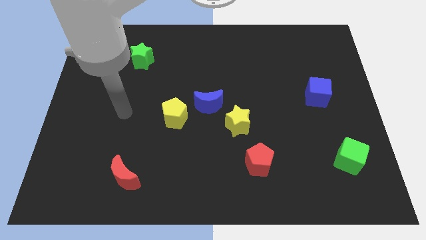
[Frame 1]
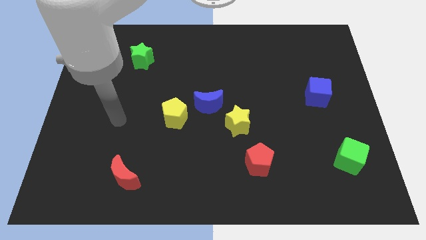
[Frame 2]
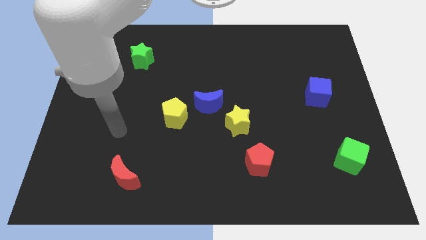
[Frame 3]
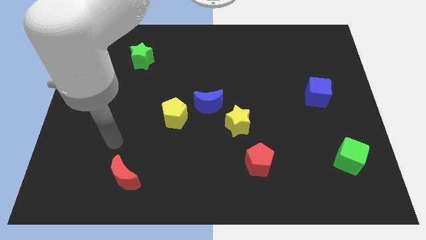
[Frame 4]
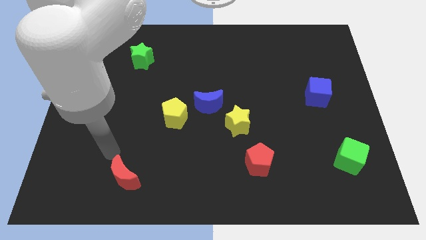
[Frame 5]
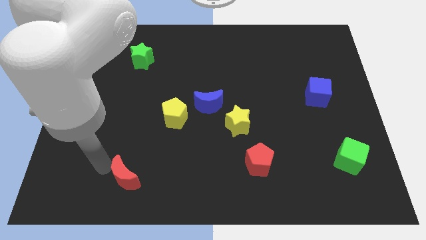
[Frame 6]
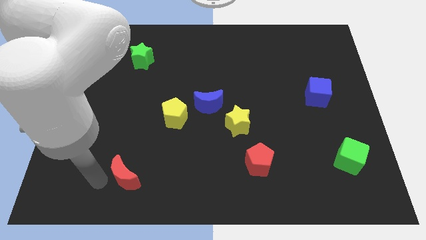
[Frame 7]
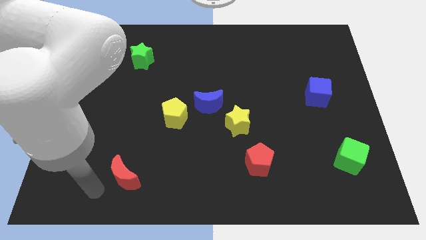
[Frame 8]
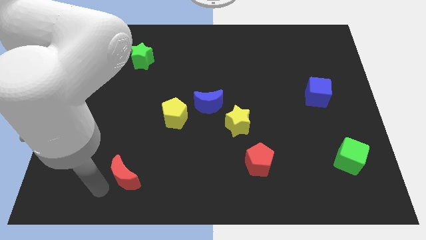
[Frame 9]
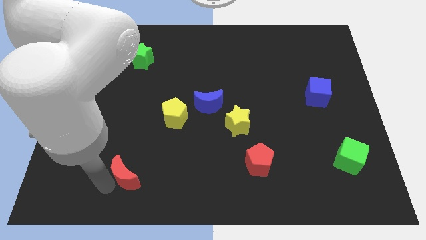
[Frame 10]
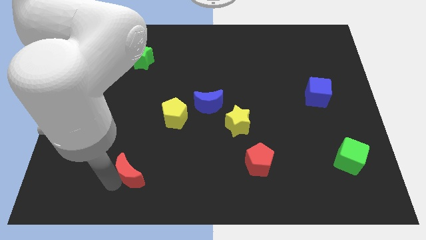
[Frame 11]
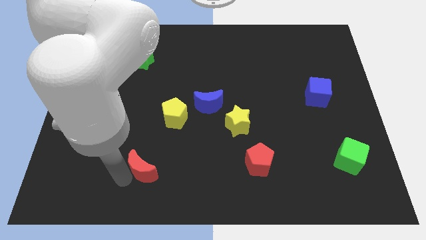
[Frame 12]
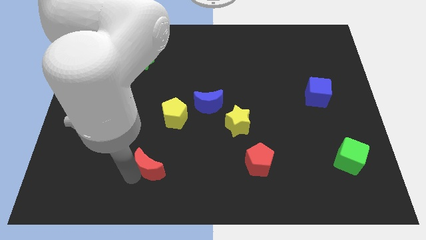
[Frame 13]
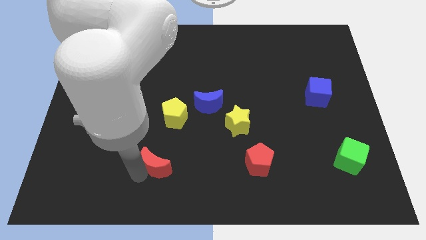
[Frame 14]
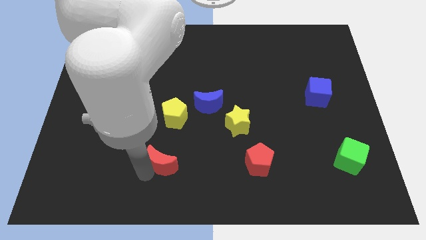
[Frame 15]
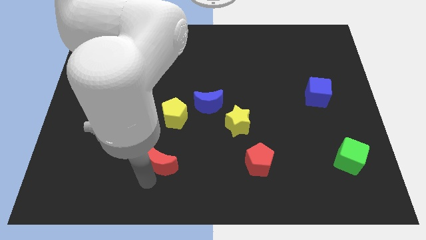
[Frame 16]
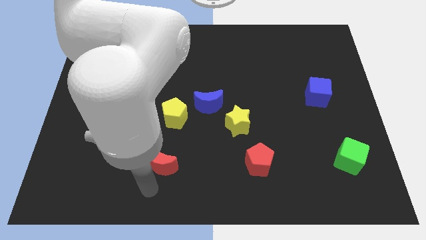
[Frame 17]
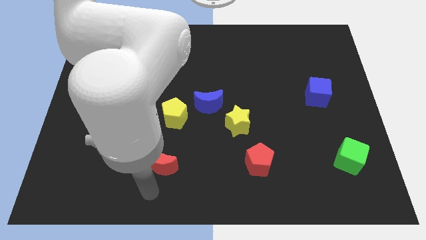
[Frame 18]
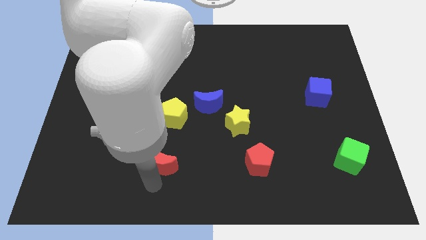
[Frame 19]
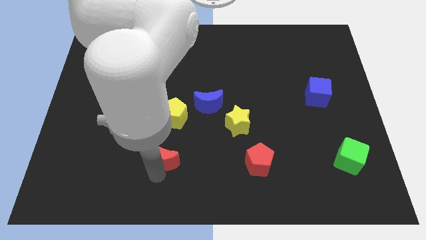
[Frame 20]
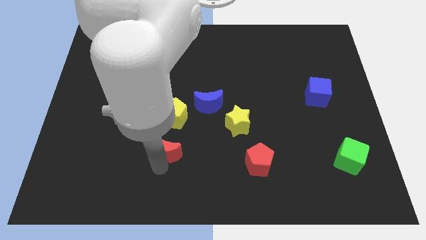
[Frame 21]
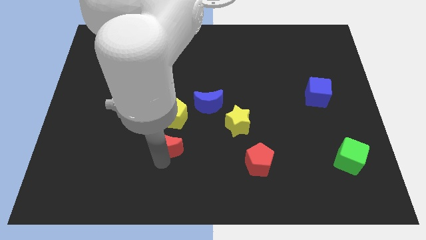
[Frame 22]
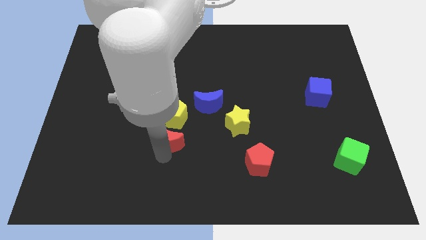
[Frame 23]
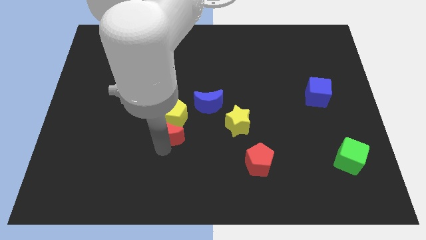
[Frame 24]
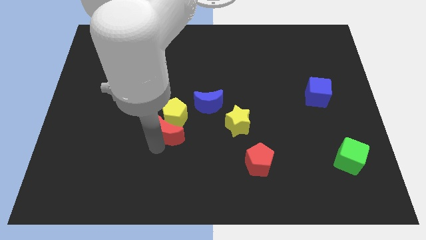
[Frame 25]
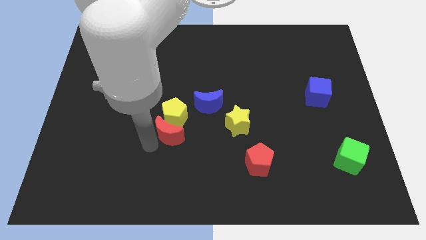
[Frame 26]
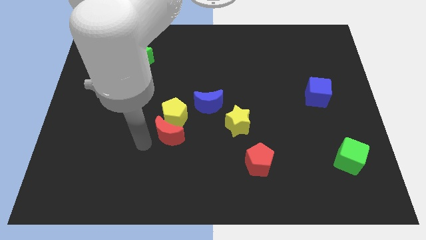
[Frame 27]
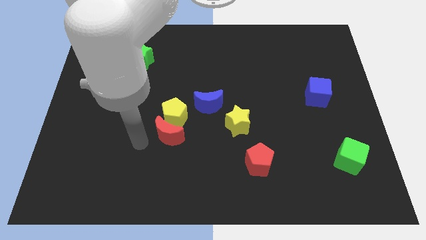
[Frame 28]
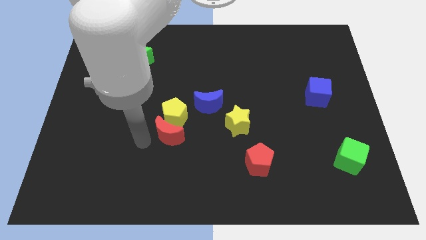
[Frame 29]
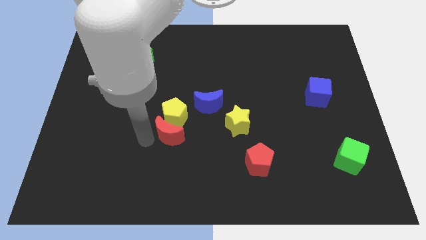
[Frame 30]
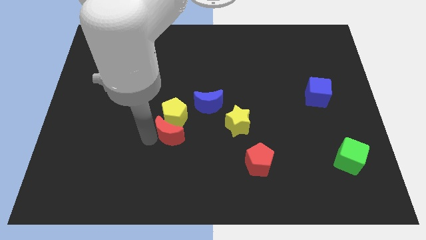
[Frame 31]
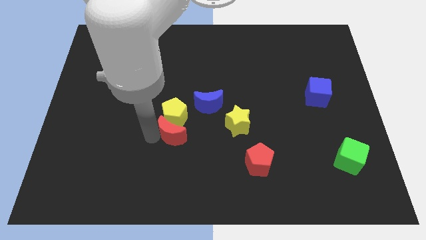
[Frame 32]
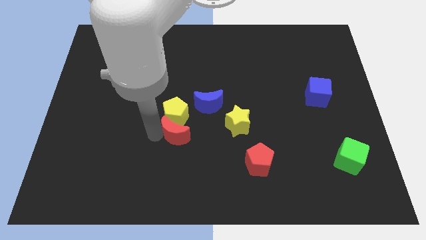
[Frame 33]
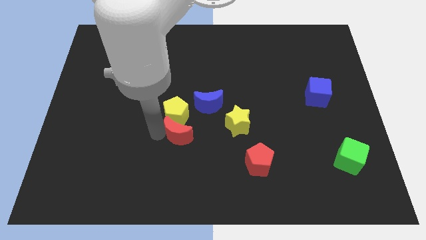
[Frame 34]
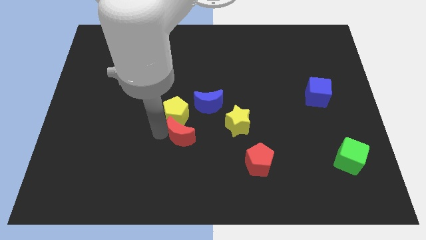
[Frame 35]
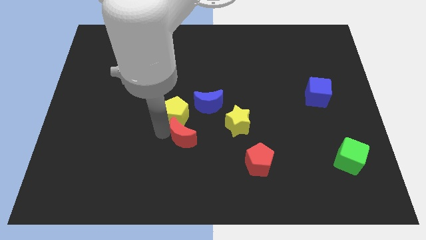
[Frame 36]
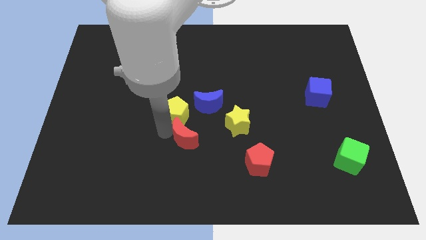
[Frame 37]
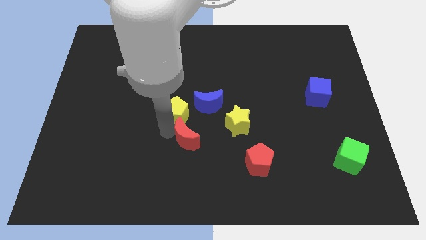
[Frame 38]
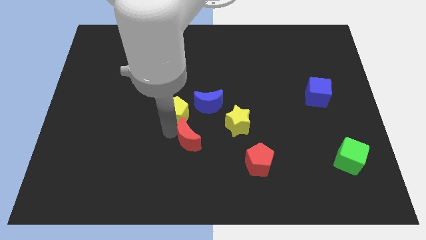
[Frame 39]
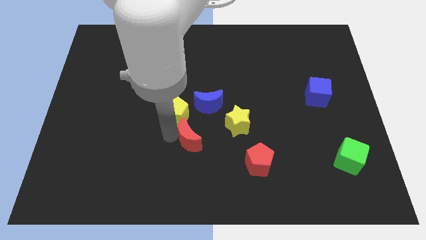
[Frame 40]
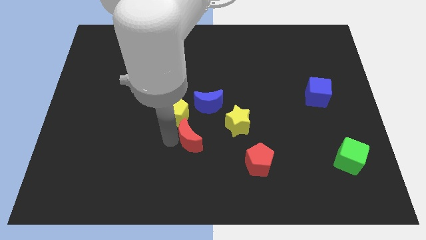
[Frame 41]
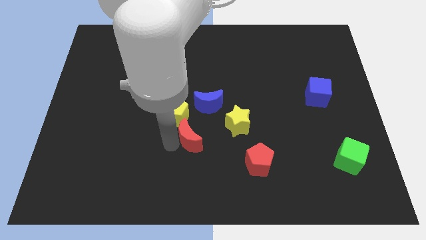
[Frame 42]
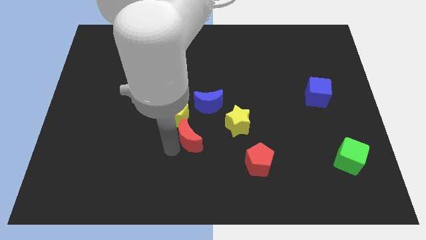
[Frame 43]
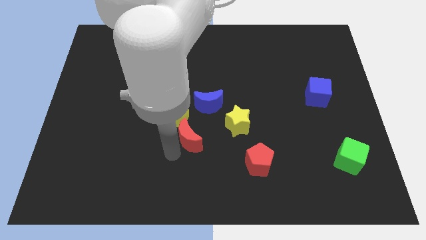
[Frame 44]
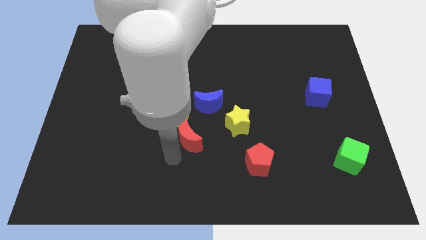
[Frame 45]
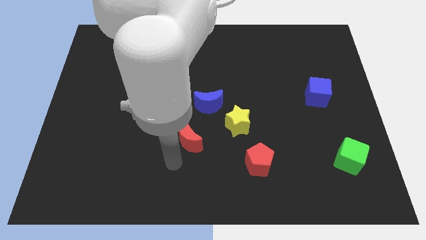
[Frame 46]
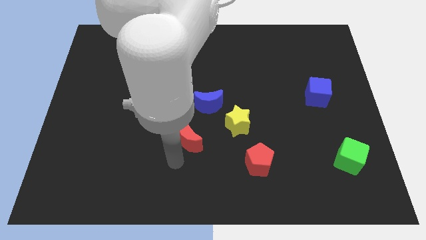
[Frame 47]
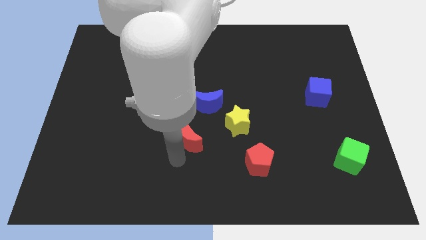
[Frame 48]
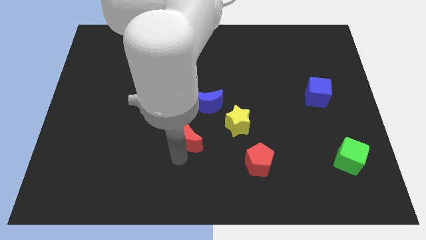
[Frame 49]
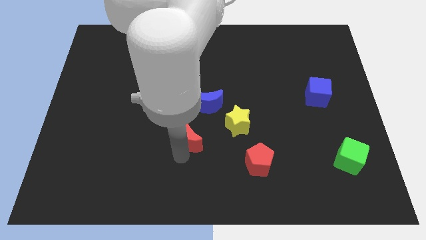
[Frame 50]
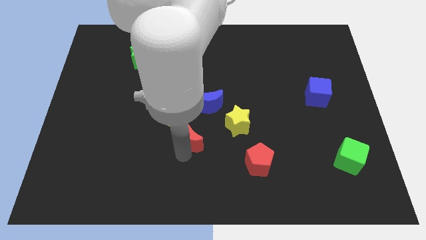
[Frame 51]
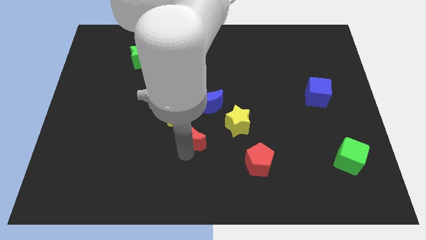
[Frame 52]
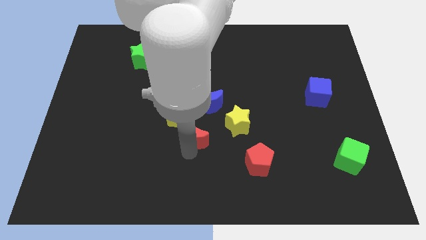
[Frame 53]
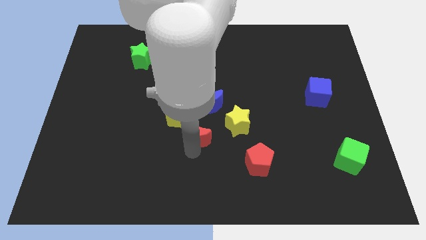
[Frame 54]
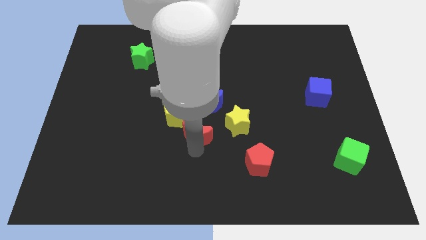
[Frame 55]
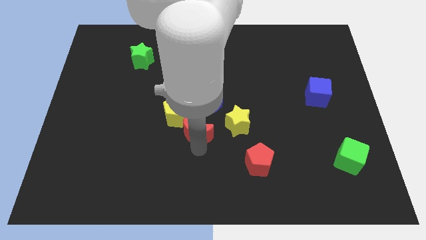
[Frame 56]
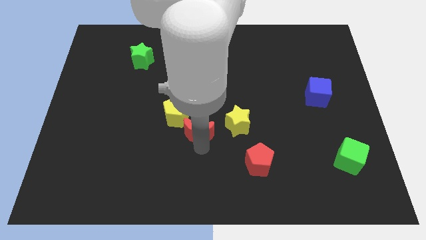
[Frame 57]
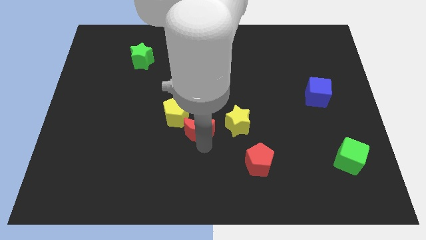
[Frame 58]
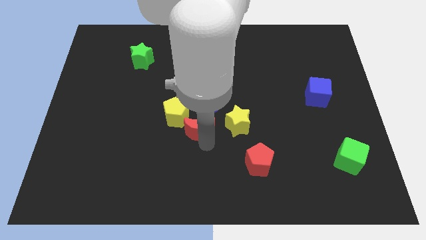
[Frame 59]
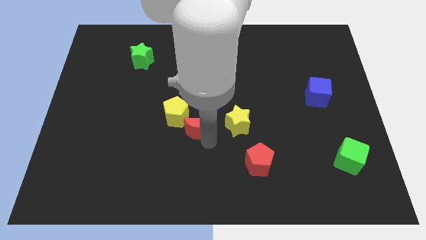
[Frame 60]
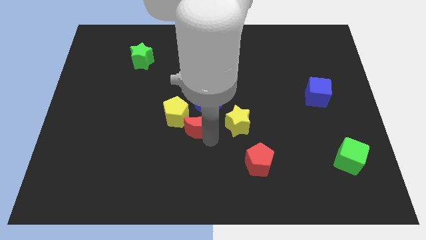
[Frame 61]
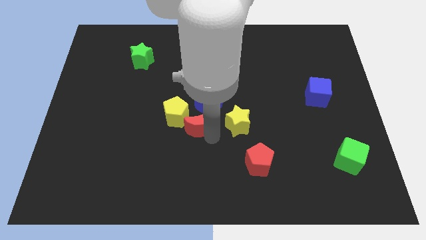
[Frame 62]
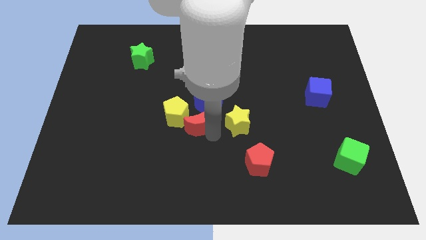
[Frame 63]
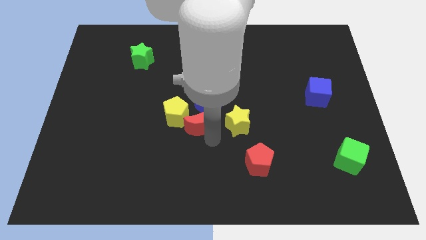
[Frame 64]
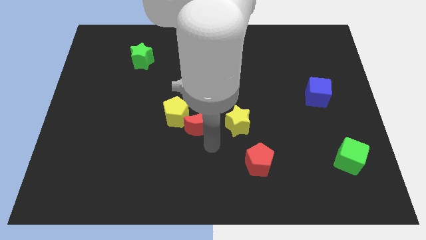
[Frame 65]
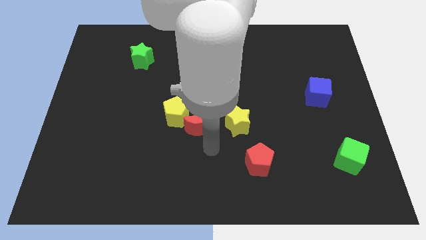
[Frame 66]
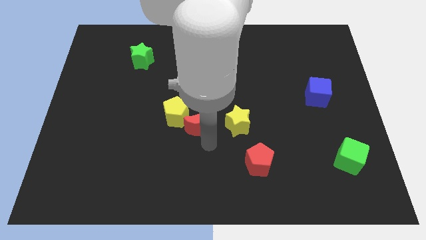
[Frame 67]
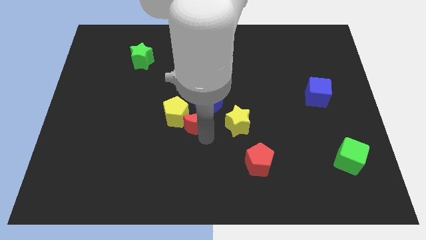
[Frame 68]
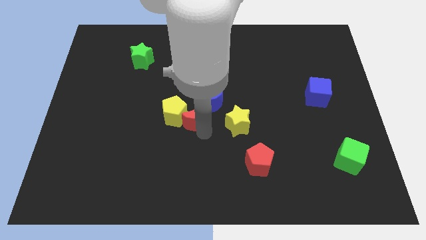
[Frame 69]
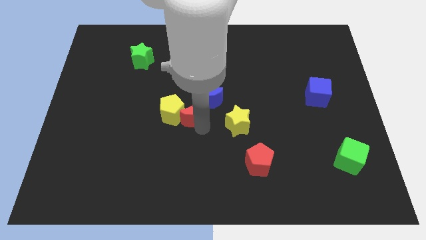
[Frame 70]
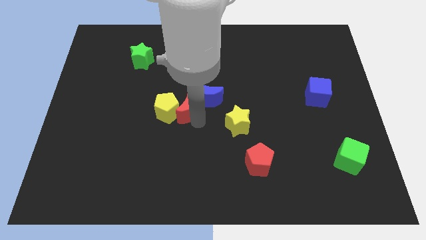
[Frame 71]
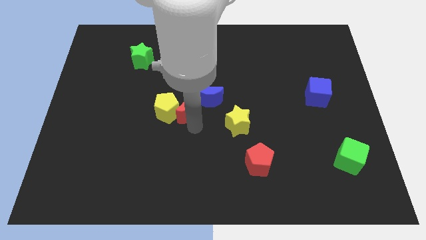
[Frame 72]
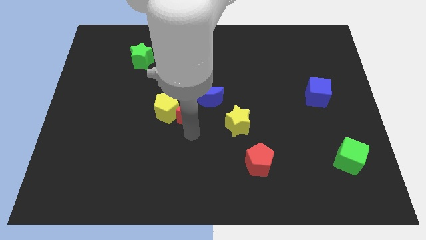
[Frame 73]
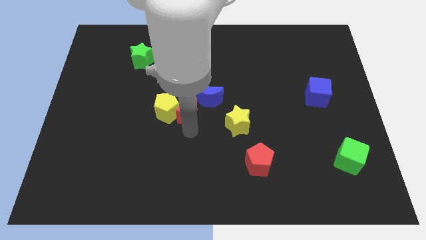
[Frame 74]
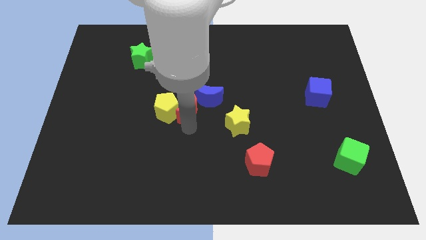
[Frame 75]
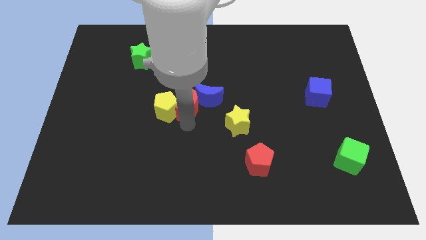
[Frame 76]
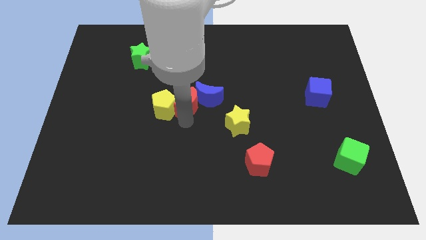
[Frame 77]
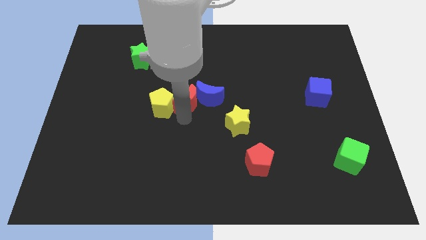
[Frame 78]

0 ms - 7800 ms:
push the red moon to the top left of the blue moon

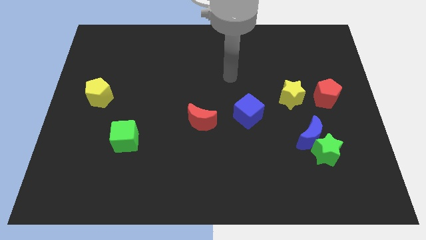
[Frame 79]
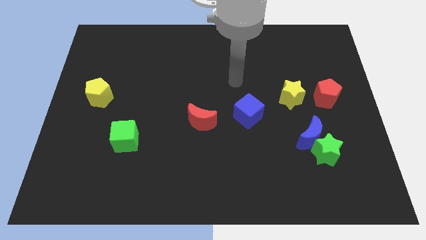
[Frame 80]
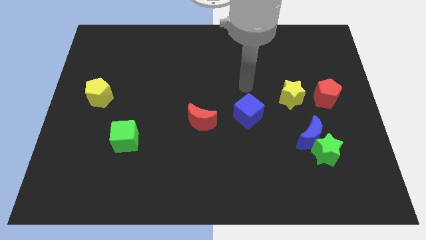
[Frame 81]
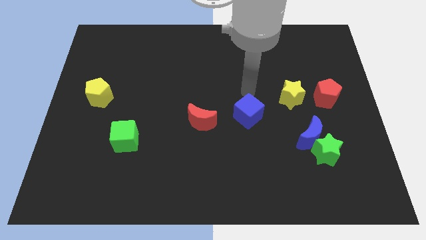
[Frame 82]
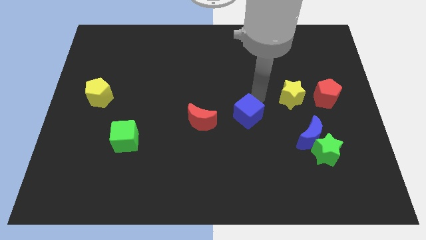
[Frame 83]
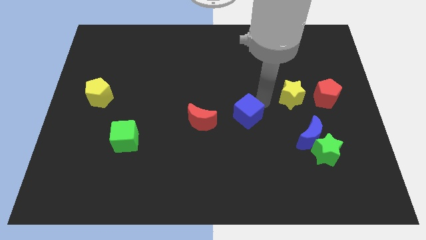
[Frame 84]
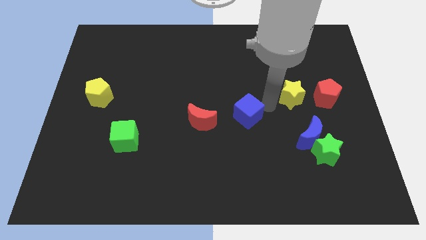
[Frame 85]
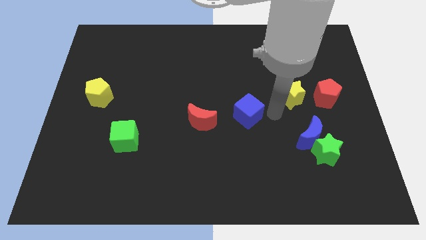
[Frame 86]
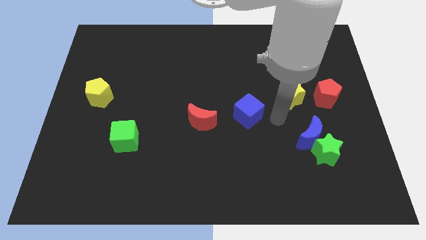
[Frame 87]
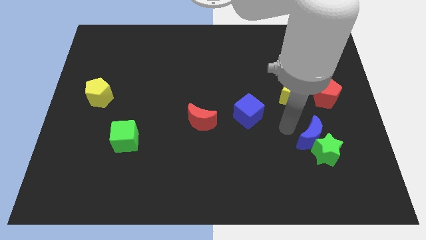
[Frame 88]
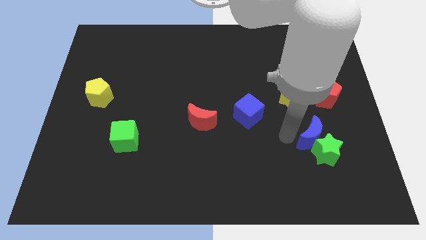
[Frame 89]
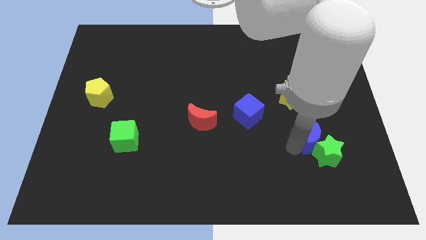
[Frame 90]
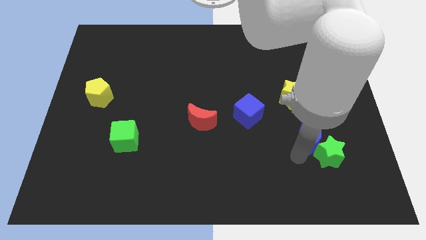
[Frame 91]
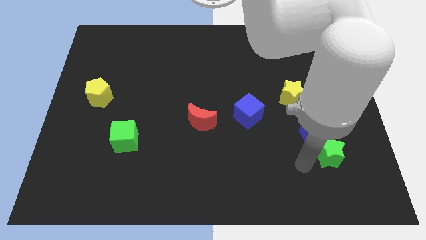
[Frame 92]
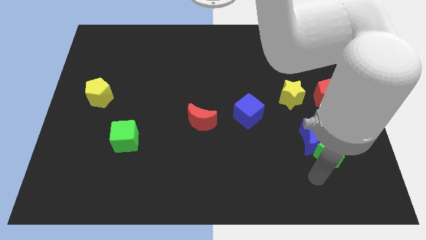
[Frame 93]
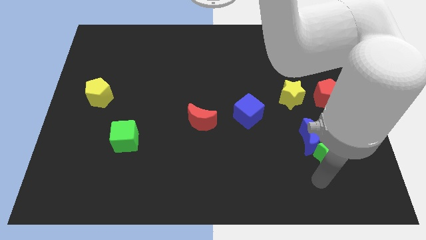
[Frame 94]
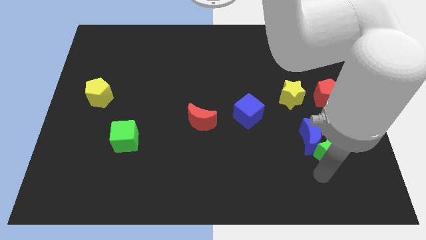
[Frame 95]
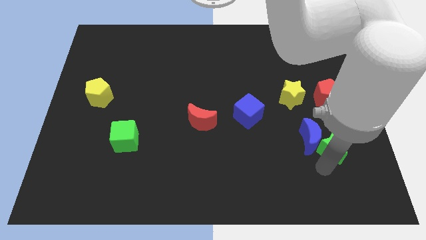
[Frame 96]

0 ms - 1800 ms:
put the green star to the bottom side of the red pentagon
